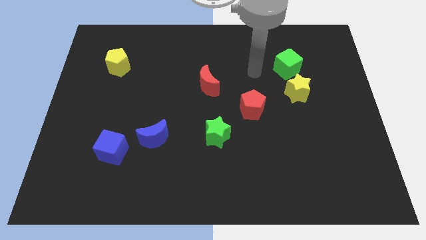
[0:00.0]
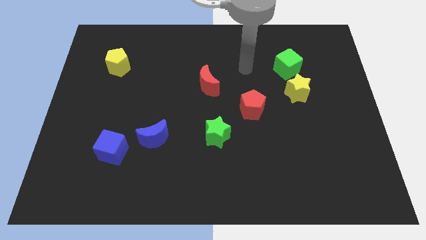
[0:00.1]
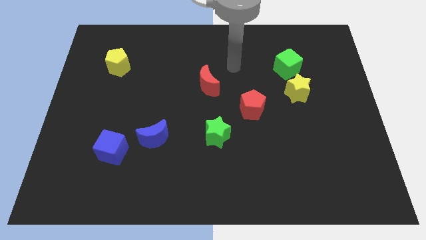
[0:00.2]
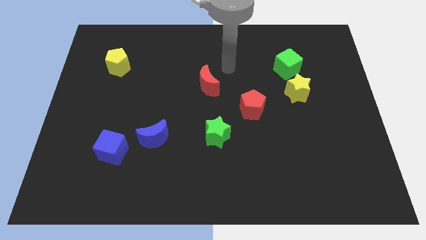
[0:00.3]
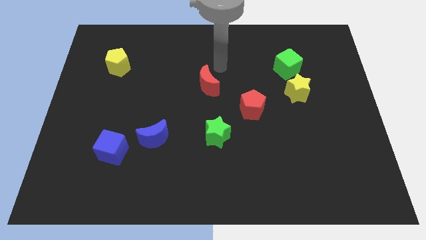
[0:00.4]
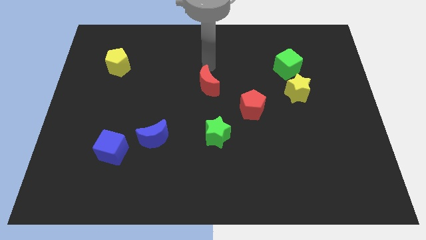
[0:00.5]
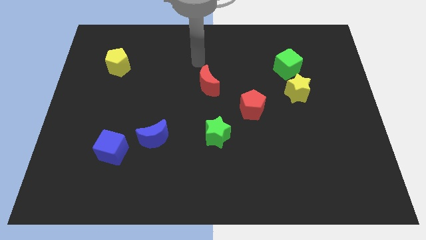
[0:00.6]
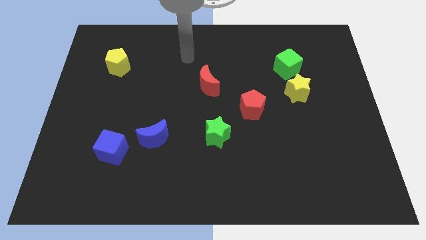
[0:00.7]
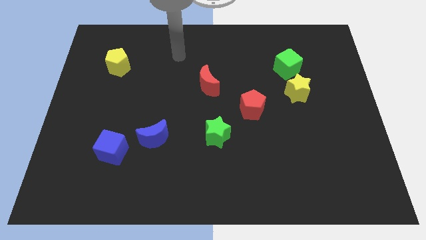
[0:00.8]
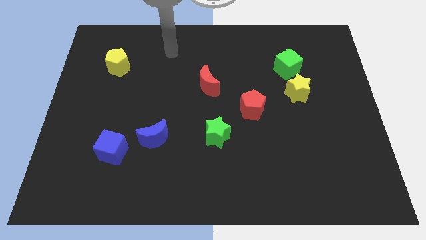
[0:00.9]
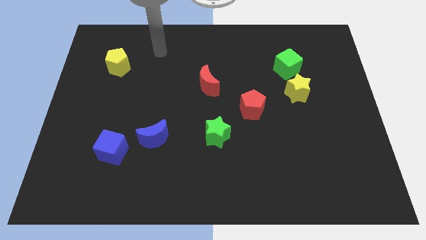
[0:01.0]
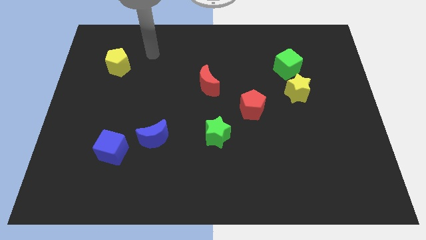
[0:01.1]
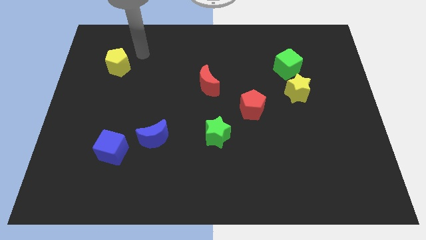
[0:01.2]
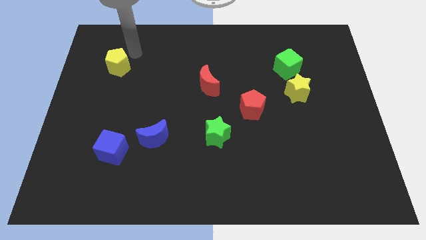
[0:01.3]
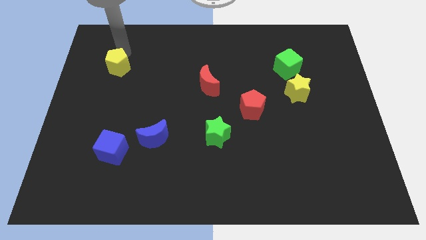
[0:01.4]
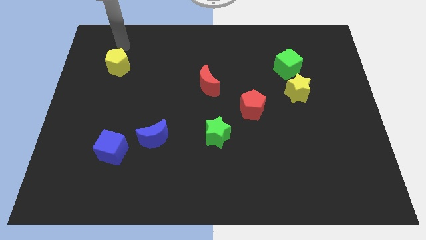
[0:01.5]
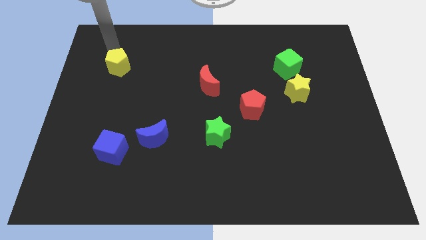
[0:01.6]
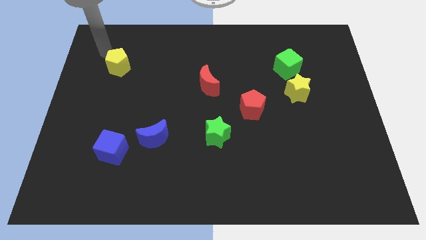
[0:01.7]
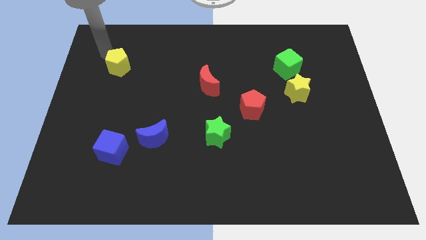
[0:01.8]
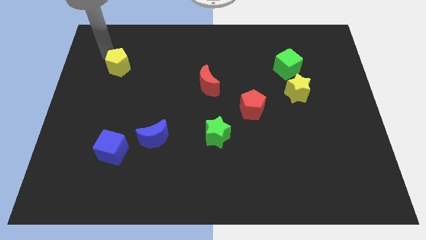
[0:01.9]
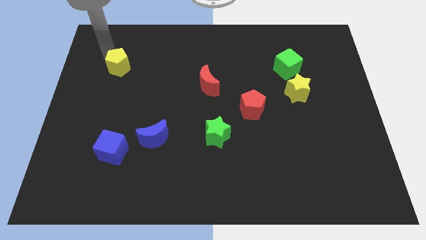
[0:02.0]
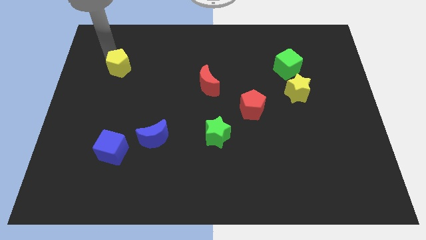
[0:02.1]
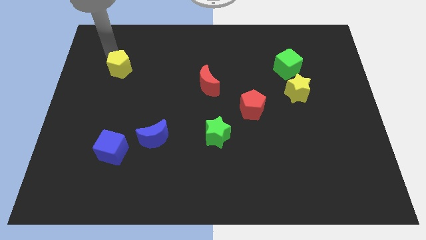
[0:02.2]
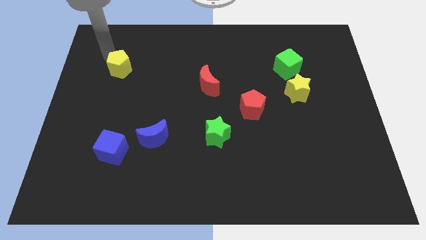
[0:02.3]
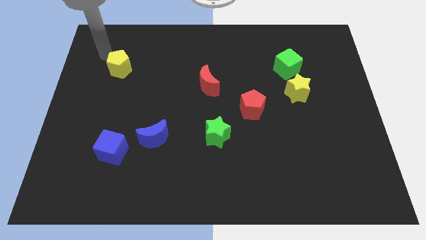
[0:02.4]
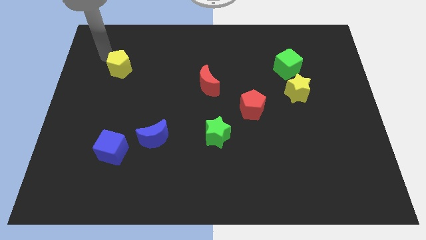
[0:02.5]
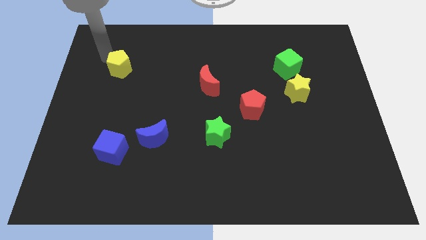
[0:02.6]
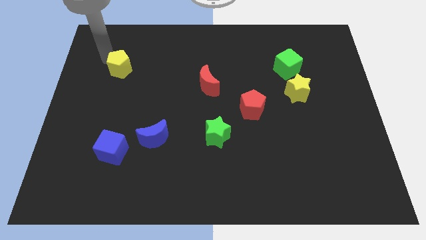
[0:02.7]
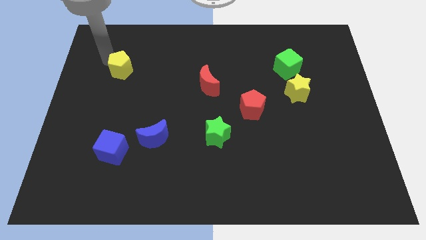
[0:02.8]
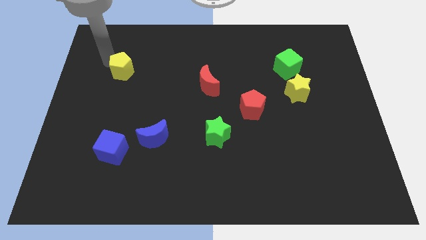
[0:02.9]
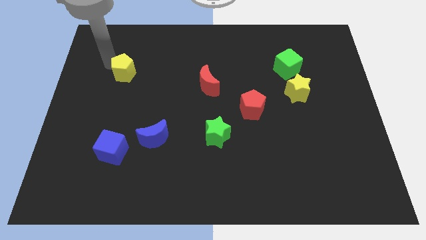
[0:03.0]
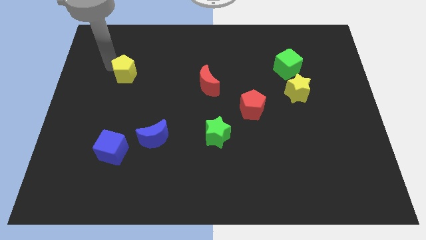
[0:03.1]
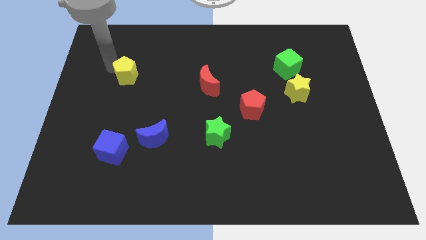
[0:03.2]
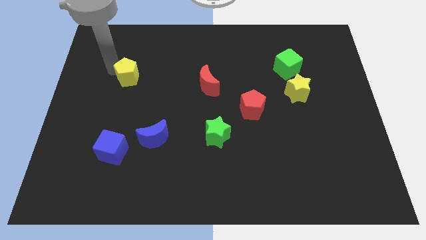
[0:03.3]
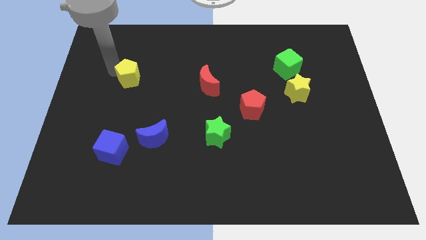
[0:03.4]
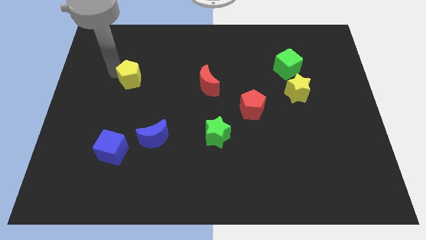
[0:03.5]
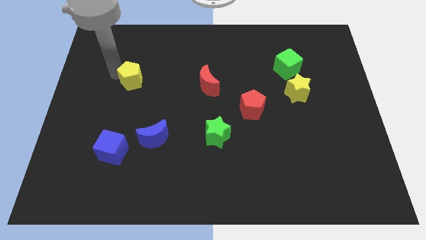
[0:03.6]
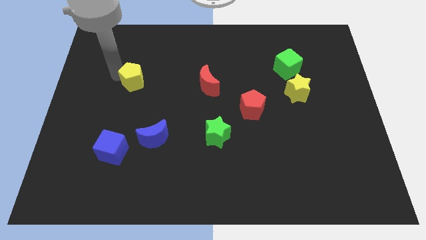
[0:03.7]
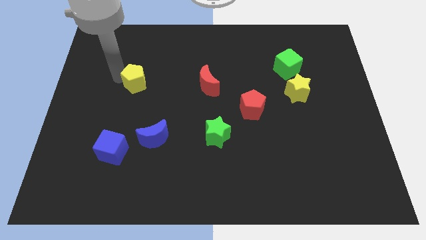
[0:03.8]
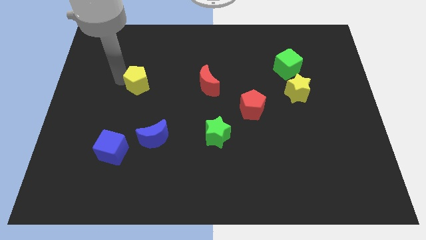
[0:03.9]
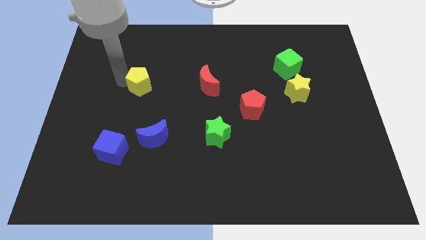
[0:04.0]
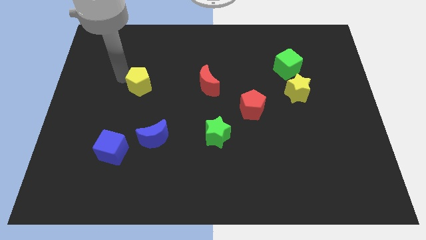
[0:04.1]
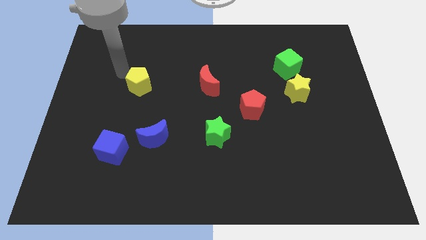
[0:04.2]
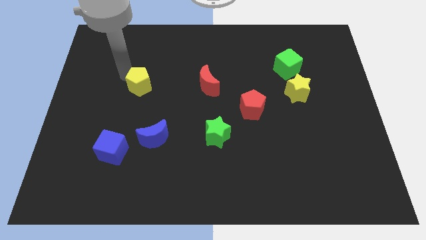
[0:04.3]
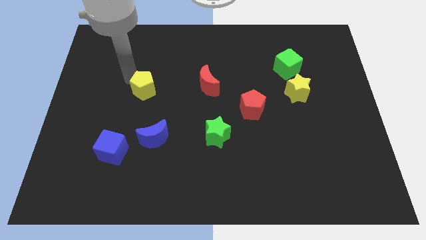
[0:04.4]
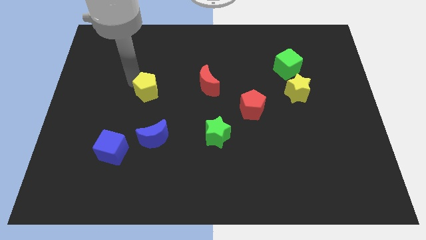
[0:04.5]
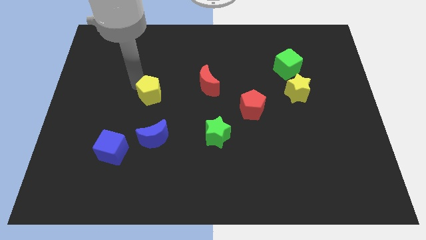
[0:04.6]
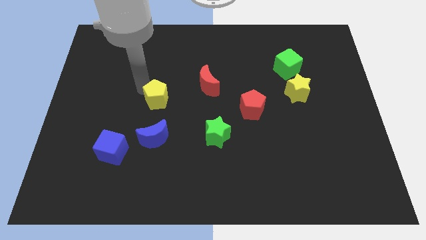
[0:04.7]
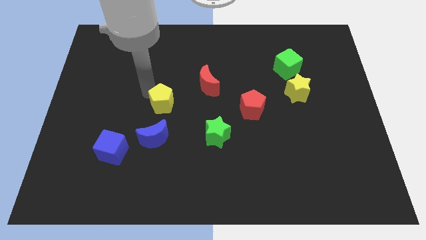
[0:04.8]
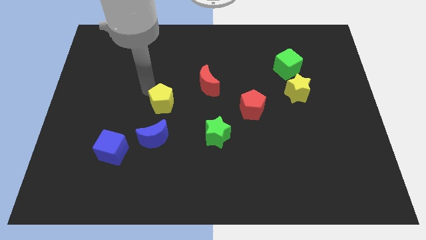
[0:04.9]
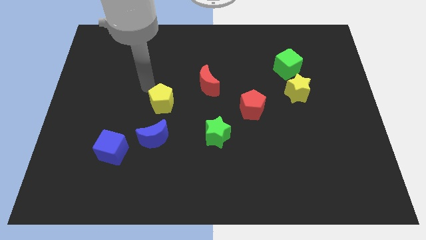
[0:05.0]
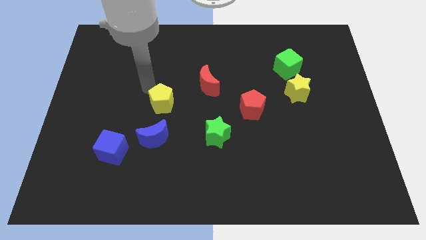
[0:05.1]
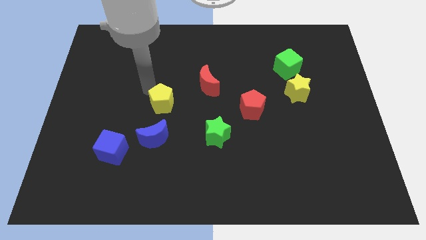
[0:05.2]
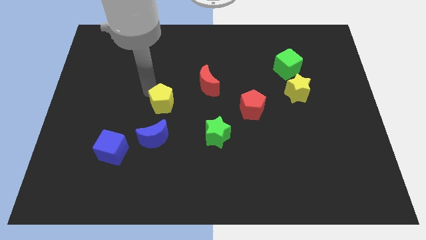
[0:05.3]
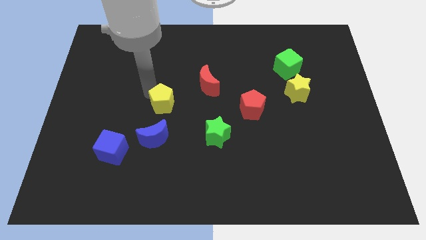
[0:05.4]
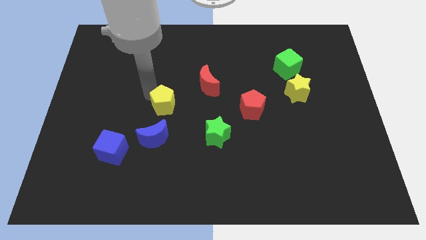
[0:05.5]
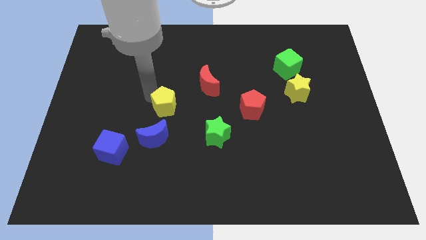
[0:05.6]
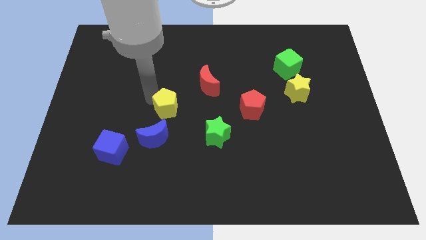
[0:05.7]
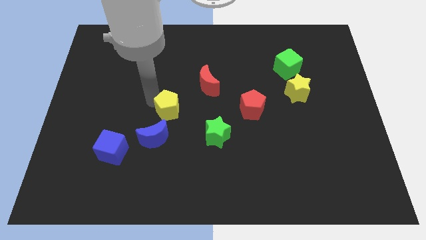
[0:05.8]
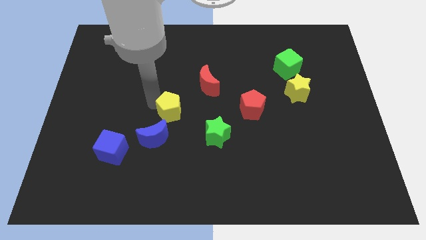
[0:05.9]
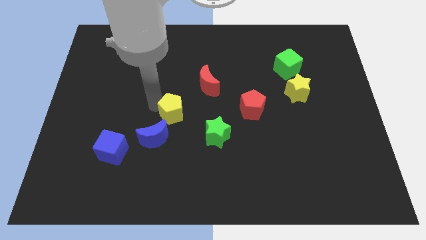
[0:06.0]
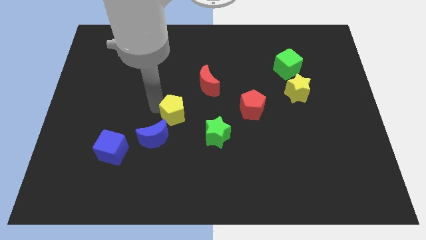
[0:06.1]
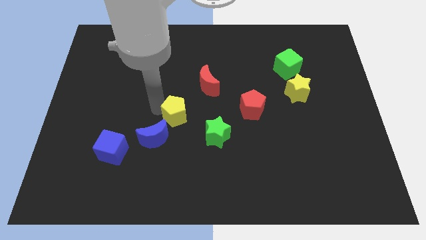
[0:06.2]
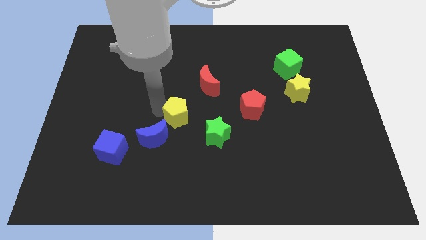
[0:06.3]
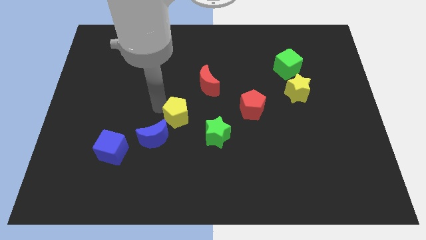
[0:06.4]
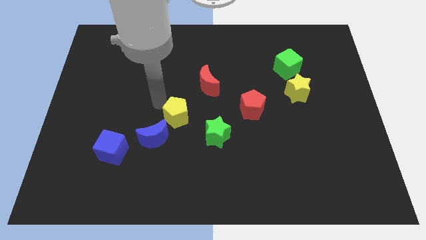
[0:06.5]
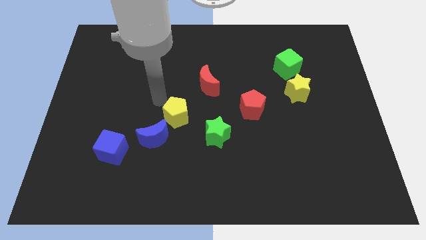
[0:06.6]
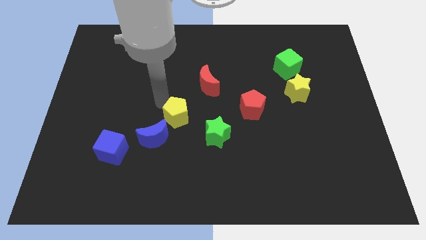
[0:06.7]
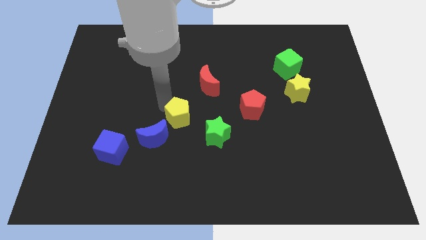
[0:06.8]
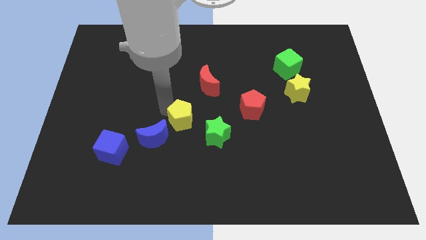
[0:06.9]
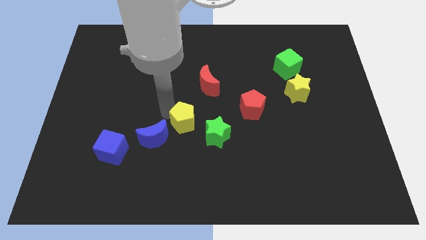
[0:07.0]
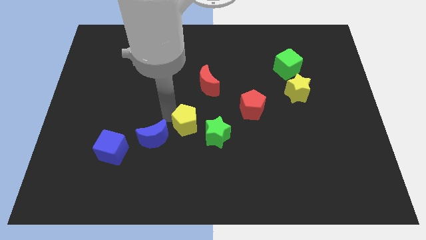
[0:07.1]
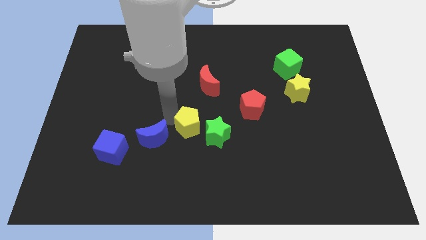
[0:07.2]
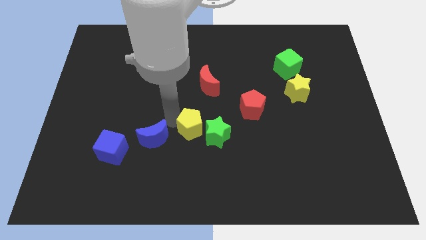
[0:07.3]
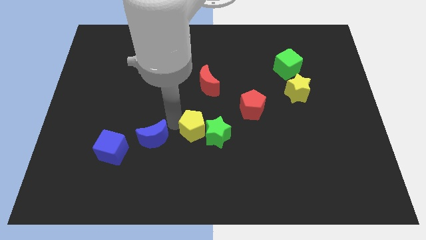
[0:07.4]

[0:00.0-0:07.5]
move the yellow pentagon close to the green star
